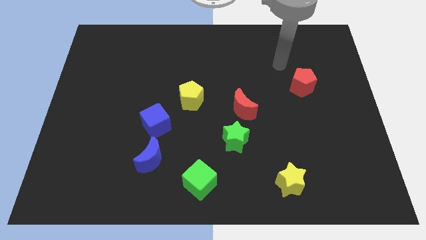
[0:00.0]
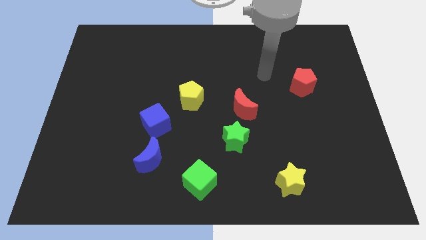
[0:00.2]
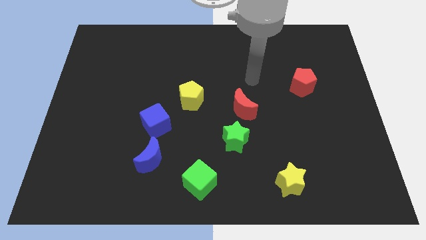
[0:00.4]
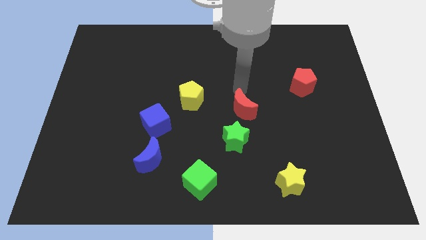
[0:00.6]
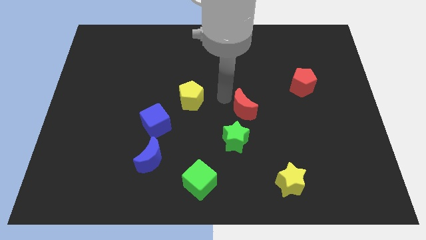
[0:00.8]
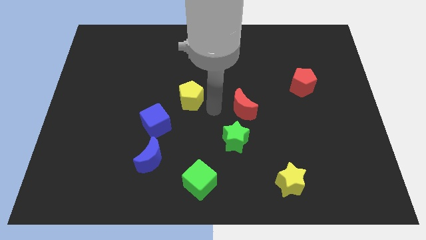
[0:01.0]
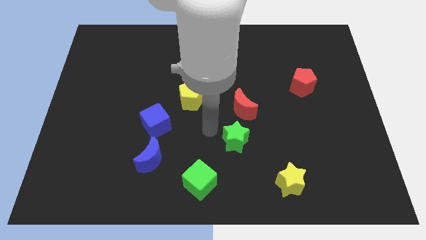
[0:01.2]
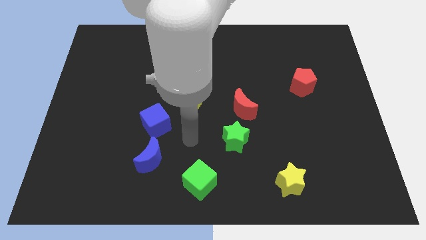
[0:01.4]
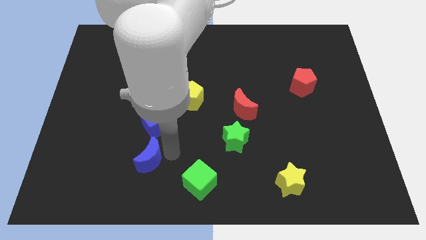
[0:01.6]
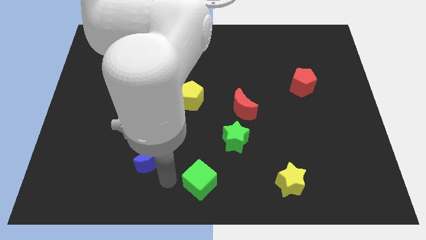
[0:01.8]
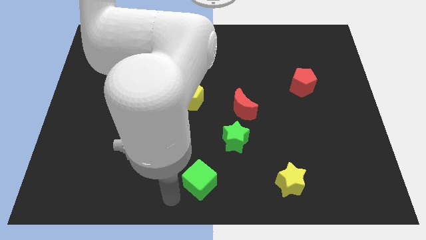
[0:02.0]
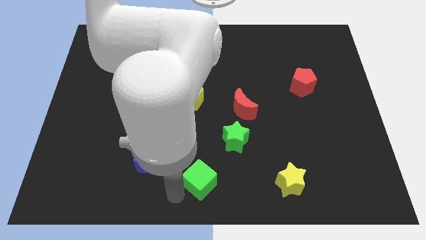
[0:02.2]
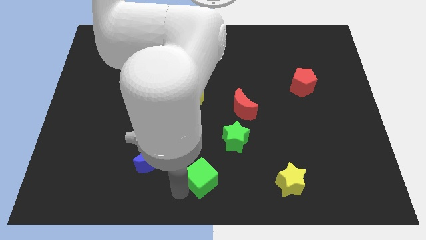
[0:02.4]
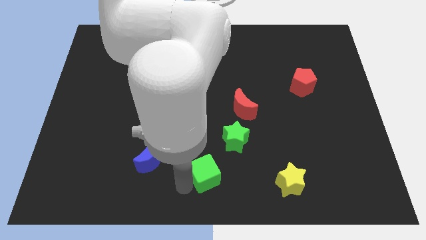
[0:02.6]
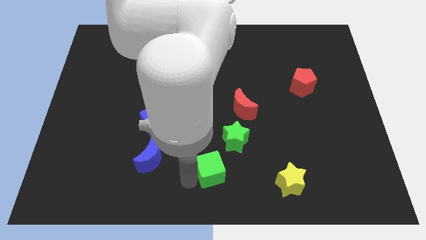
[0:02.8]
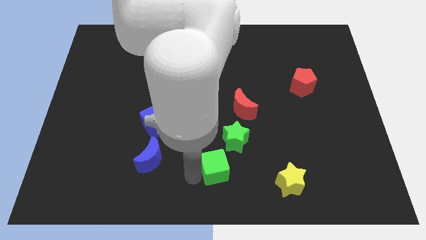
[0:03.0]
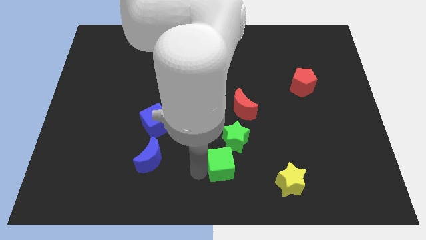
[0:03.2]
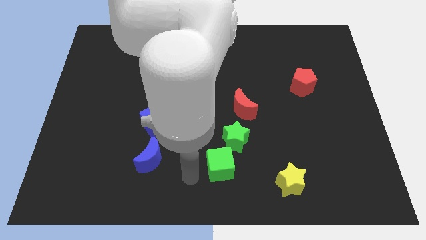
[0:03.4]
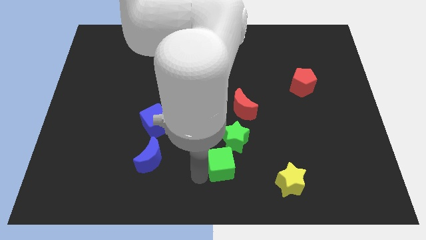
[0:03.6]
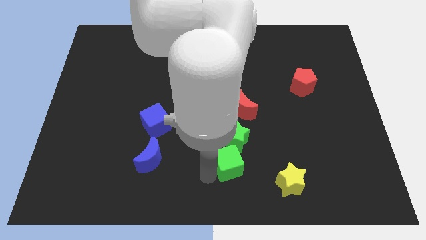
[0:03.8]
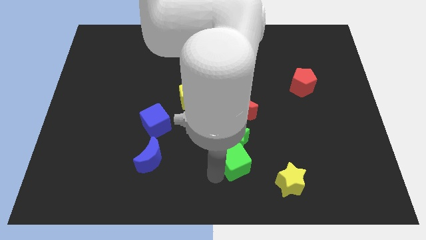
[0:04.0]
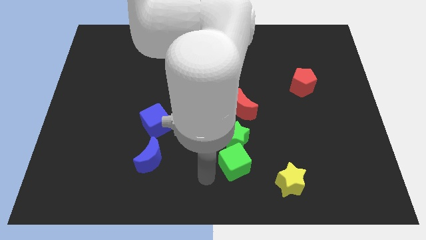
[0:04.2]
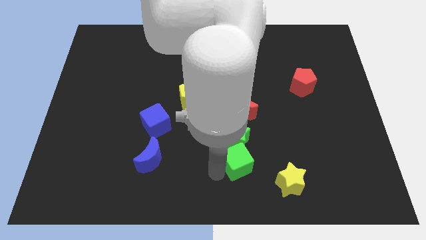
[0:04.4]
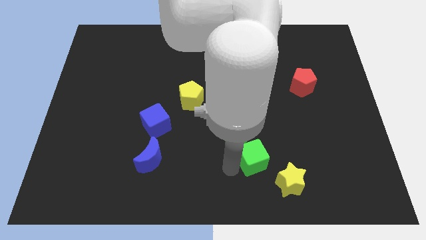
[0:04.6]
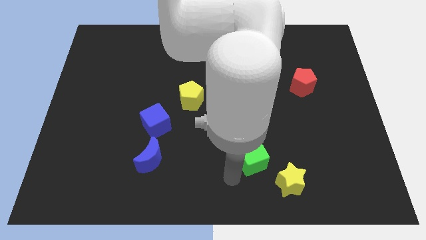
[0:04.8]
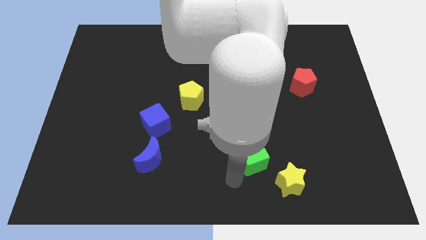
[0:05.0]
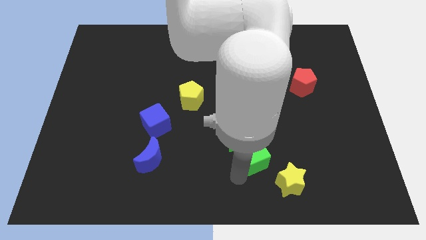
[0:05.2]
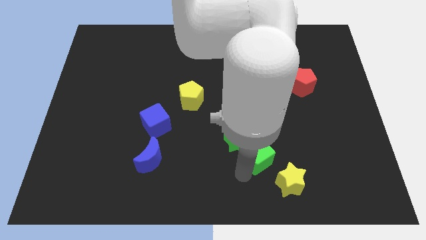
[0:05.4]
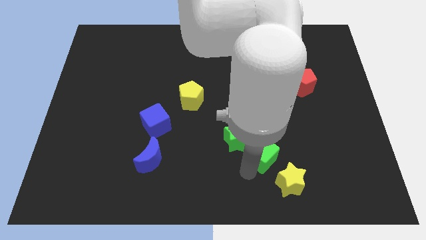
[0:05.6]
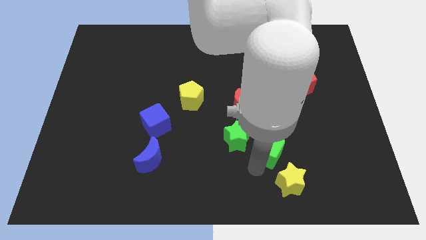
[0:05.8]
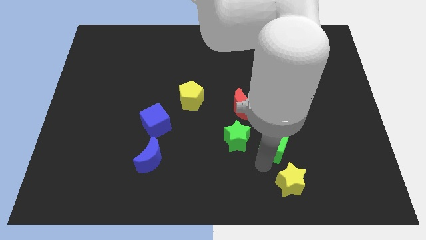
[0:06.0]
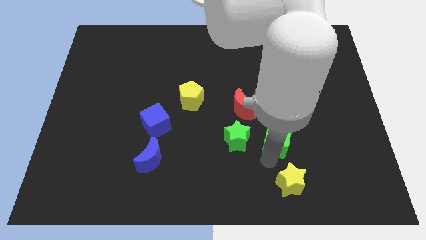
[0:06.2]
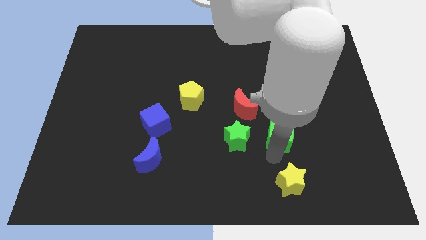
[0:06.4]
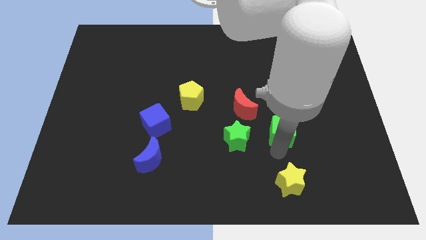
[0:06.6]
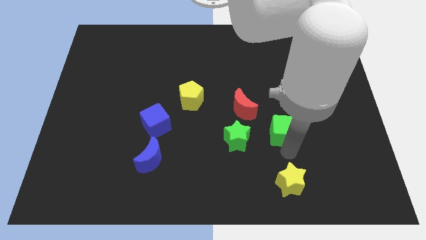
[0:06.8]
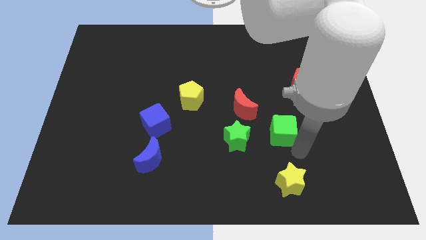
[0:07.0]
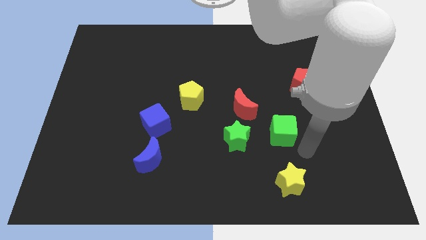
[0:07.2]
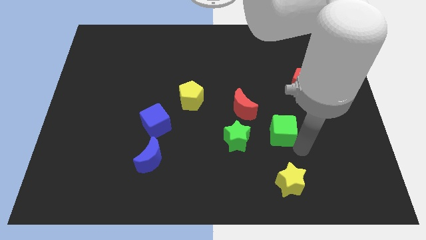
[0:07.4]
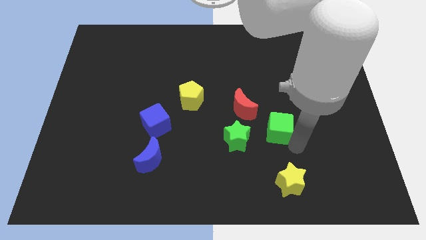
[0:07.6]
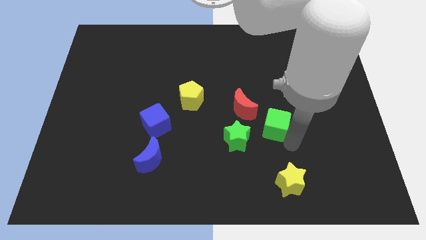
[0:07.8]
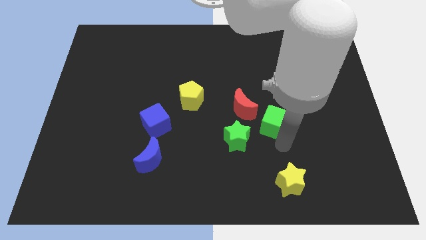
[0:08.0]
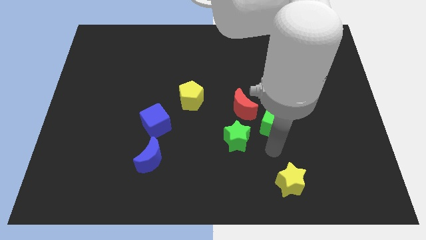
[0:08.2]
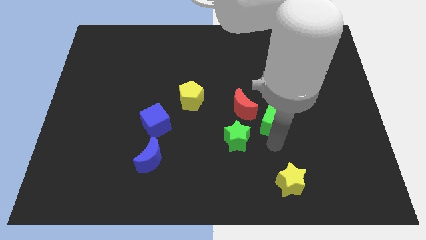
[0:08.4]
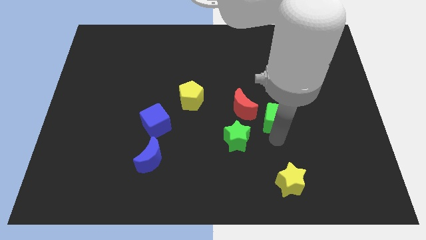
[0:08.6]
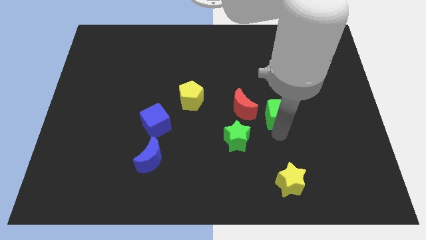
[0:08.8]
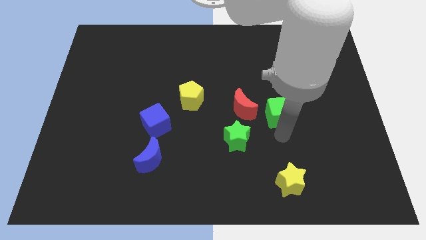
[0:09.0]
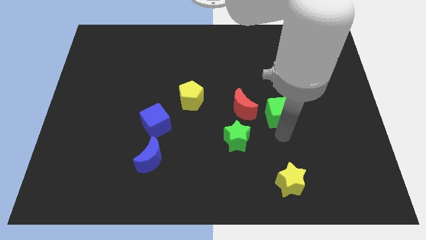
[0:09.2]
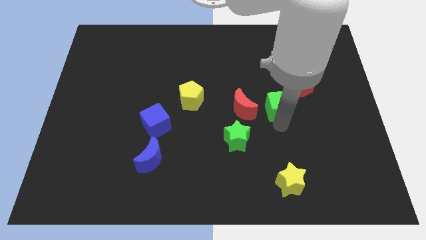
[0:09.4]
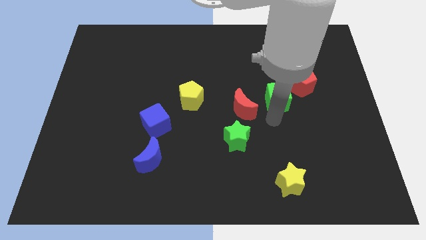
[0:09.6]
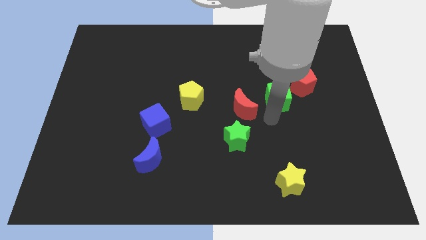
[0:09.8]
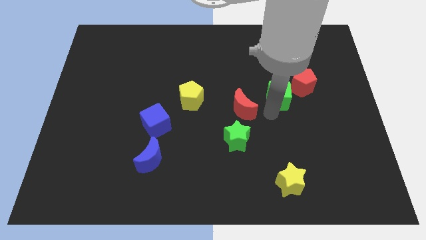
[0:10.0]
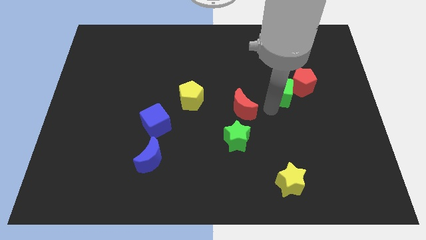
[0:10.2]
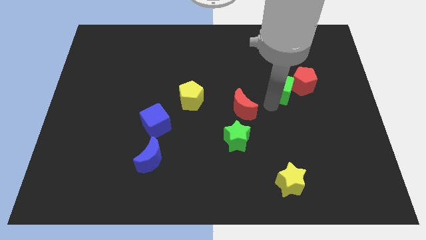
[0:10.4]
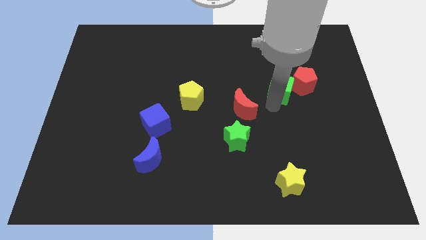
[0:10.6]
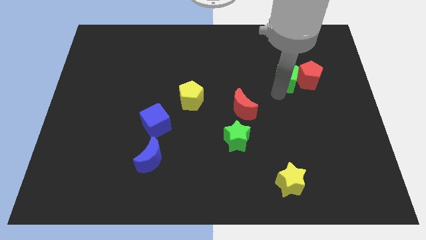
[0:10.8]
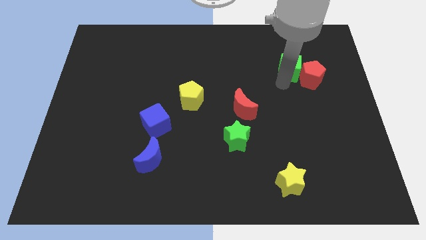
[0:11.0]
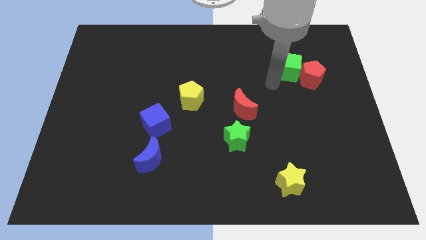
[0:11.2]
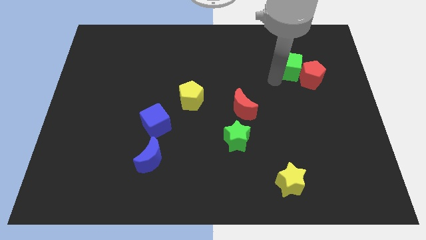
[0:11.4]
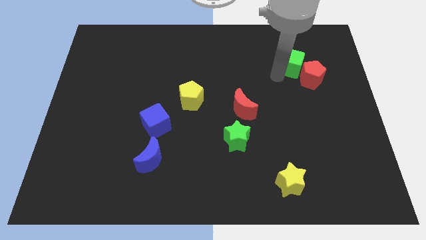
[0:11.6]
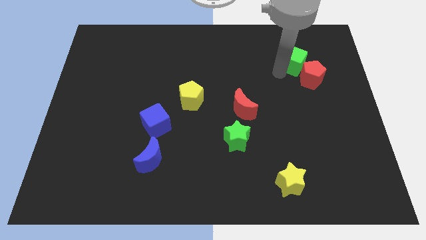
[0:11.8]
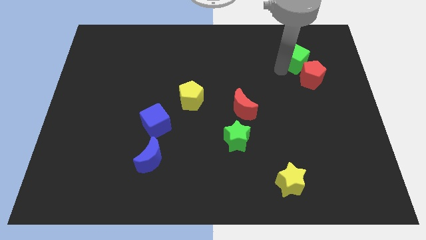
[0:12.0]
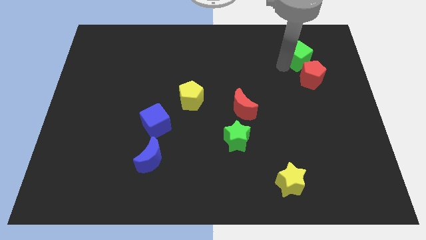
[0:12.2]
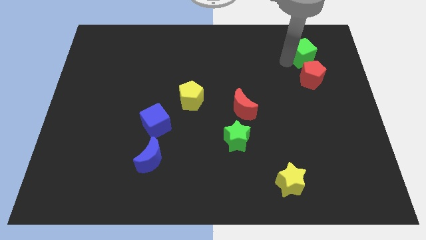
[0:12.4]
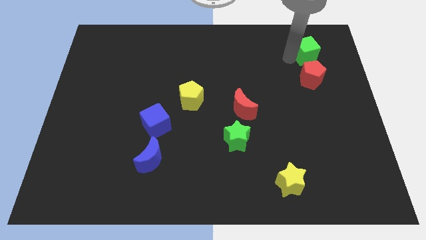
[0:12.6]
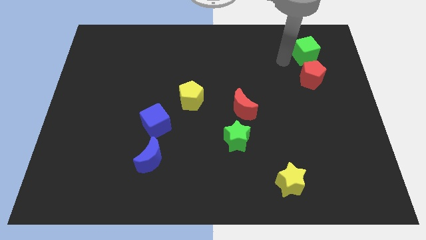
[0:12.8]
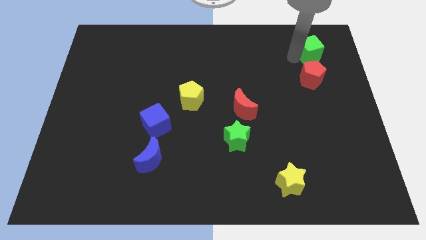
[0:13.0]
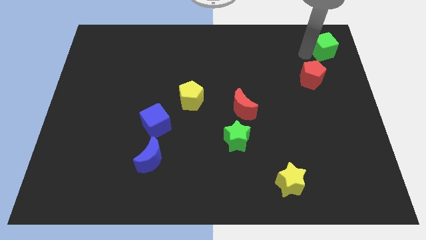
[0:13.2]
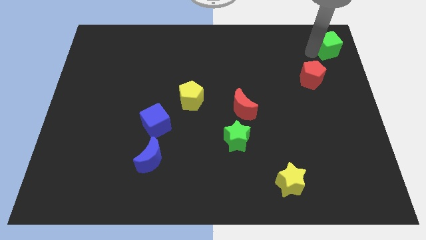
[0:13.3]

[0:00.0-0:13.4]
move the green cube to the upper right corner
